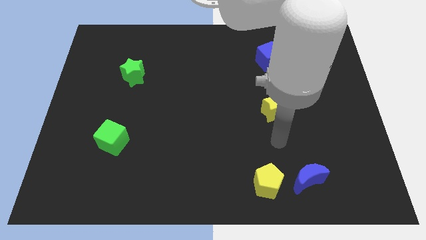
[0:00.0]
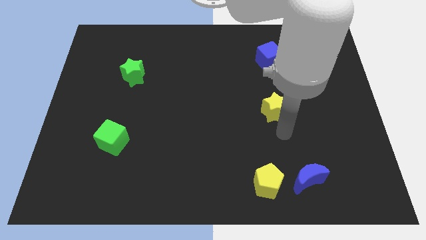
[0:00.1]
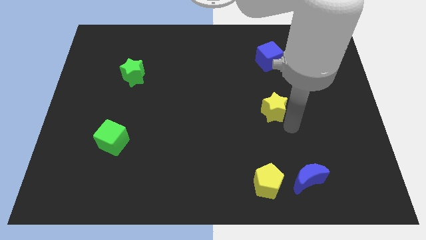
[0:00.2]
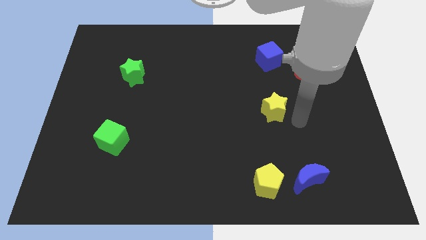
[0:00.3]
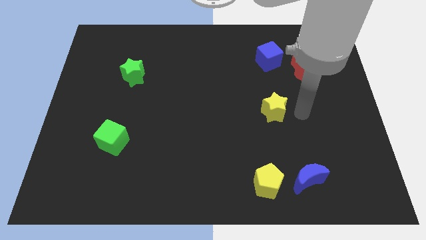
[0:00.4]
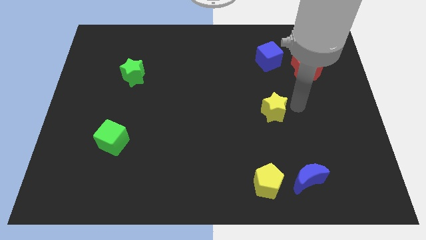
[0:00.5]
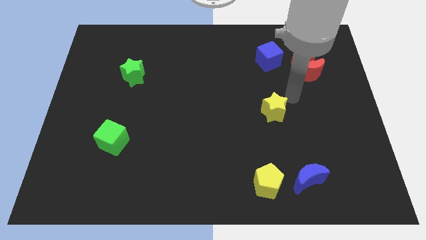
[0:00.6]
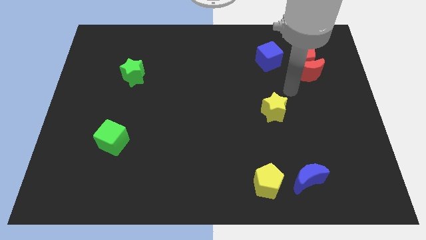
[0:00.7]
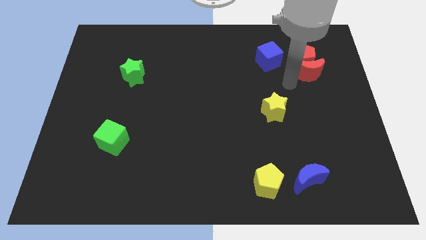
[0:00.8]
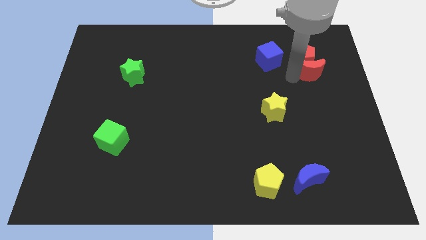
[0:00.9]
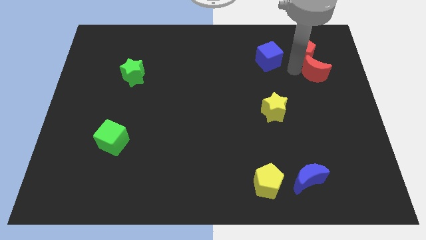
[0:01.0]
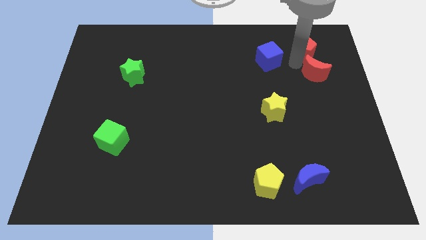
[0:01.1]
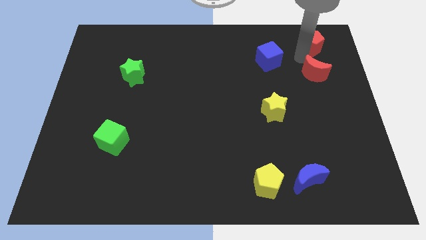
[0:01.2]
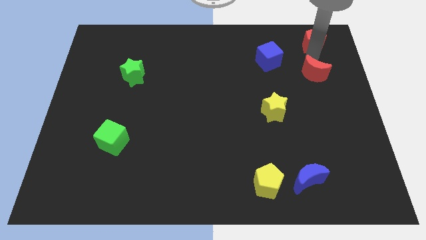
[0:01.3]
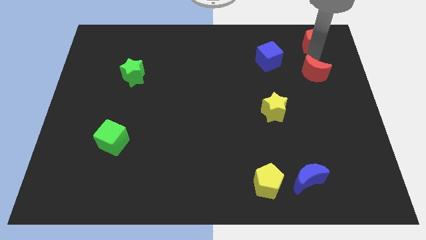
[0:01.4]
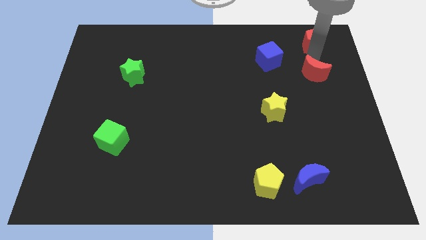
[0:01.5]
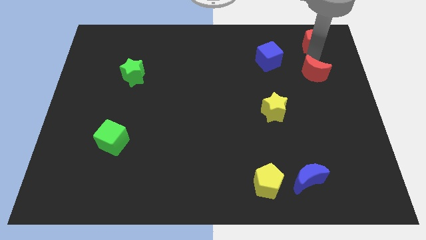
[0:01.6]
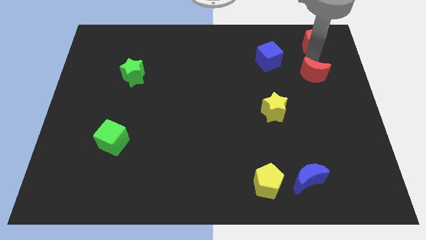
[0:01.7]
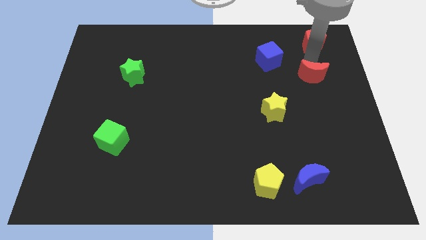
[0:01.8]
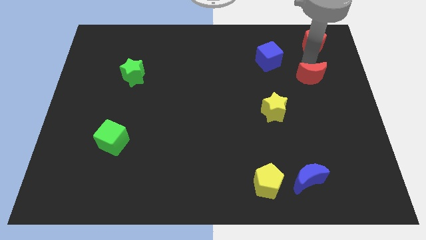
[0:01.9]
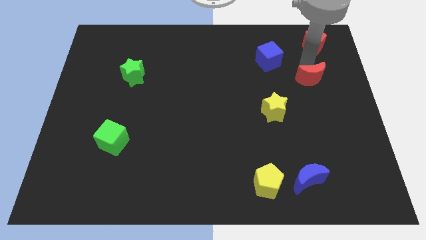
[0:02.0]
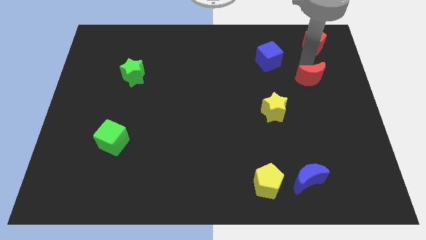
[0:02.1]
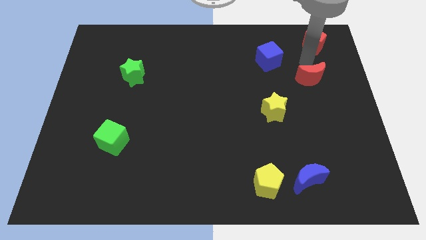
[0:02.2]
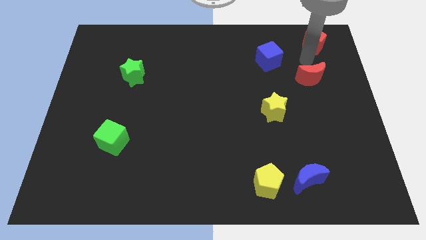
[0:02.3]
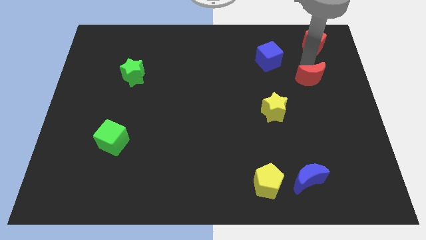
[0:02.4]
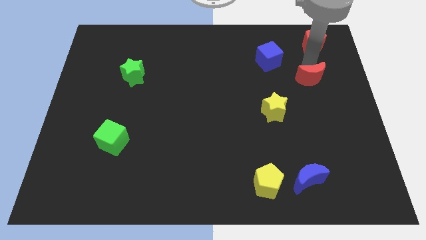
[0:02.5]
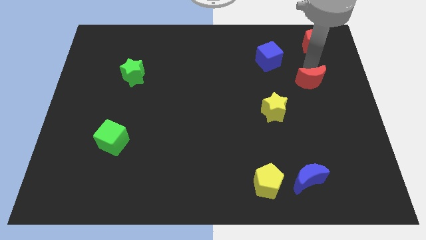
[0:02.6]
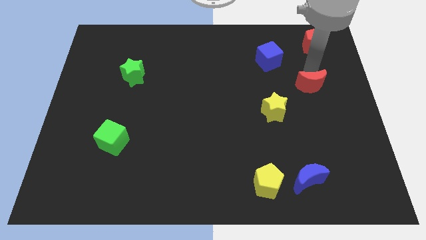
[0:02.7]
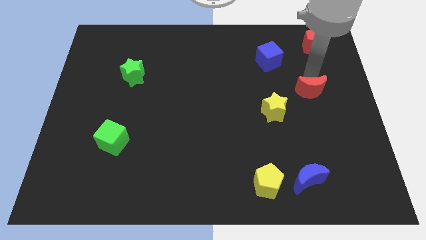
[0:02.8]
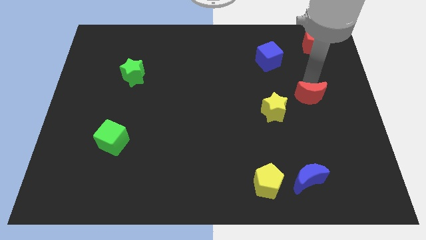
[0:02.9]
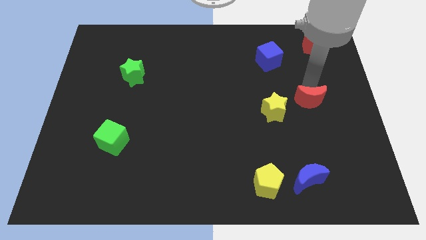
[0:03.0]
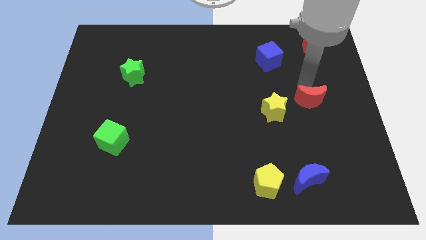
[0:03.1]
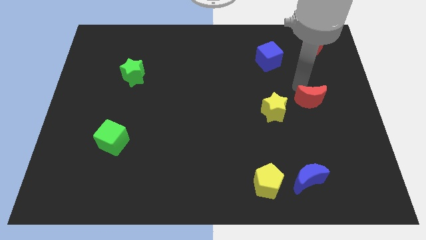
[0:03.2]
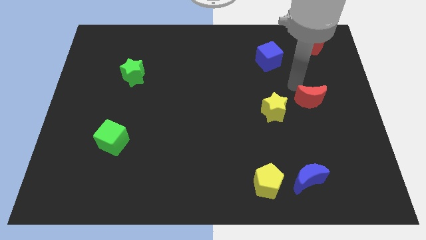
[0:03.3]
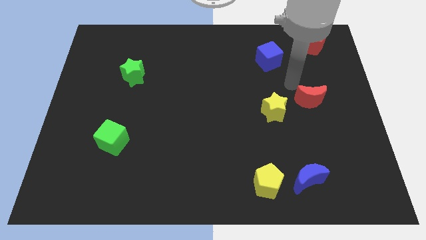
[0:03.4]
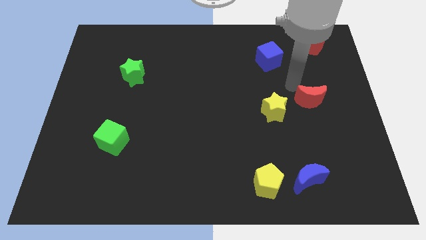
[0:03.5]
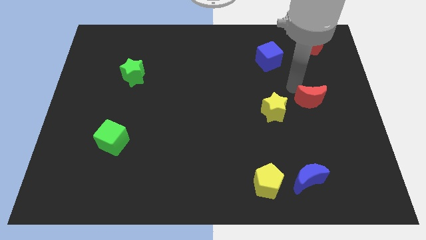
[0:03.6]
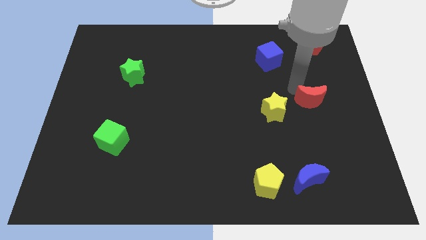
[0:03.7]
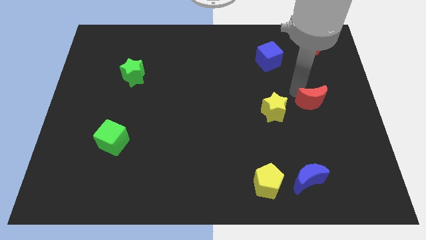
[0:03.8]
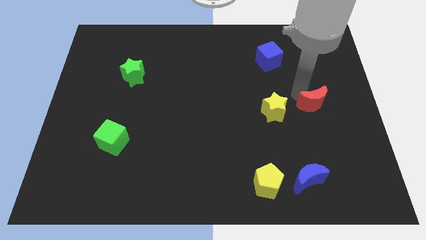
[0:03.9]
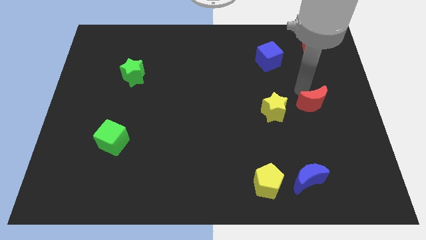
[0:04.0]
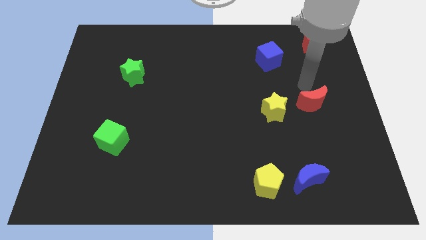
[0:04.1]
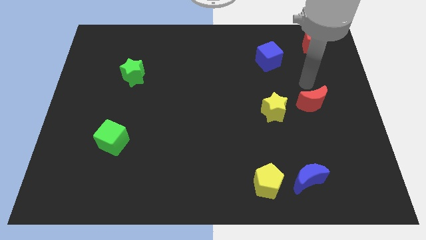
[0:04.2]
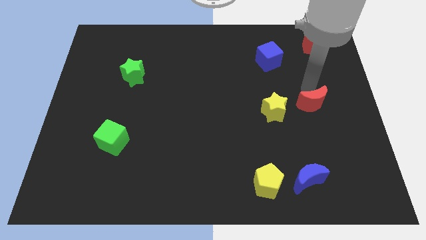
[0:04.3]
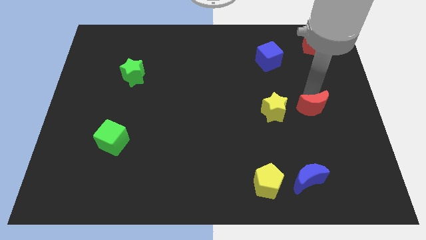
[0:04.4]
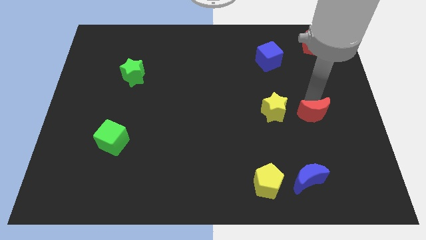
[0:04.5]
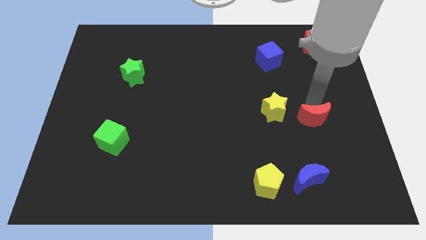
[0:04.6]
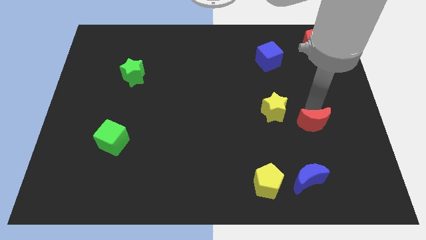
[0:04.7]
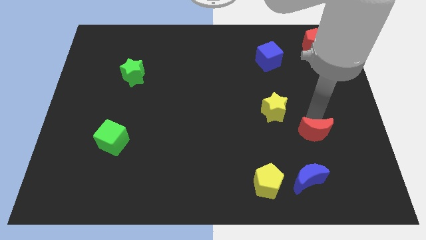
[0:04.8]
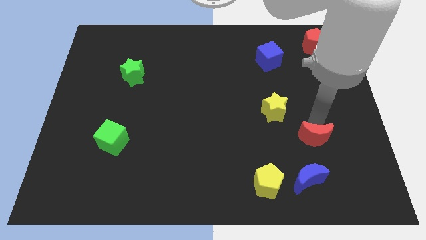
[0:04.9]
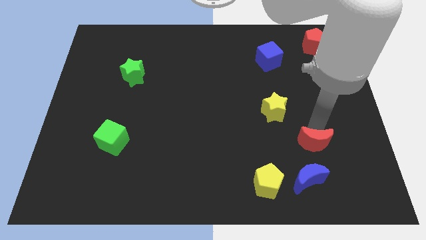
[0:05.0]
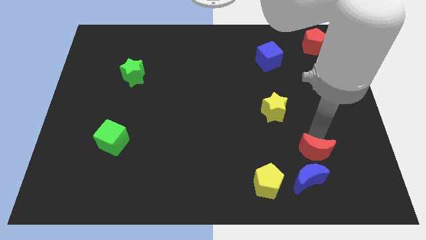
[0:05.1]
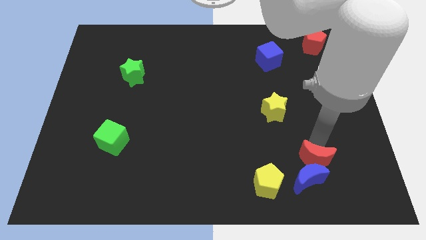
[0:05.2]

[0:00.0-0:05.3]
slide the red moon to the blue moon

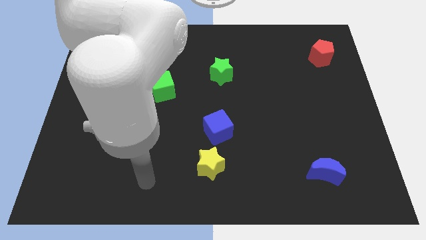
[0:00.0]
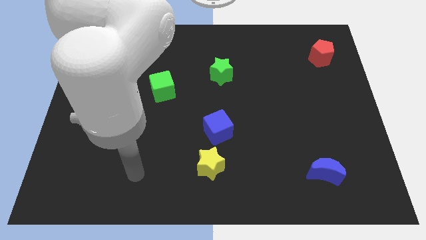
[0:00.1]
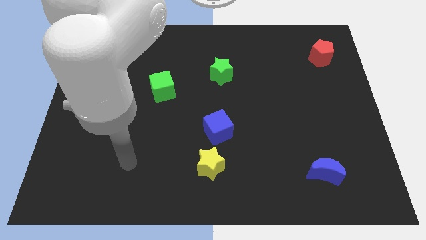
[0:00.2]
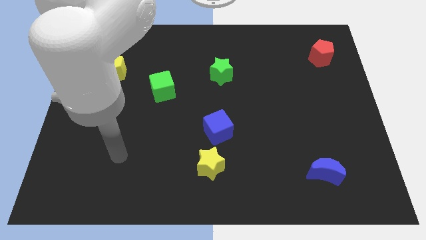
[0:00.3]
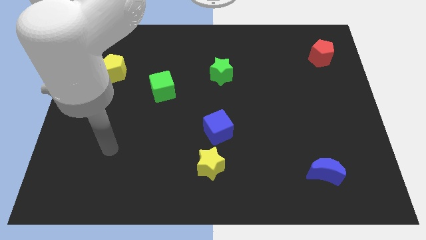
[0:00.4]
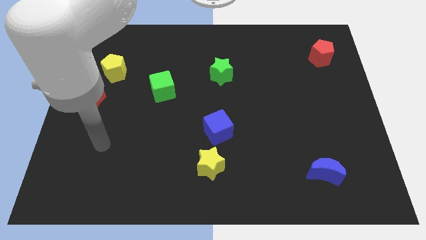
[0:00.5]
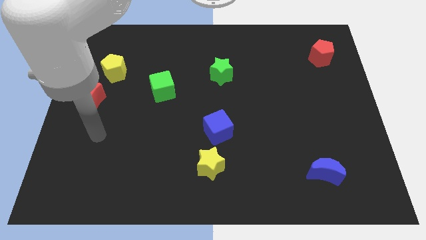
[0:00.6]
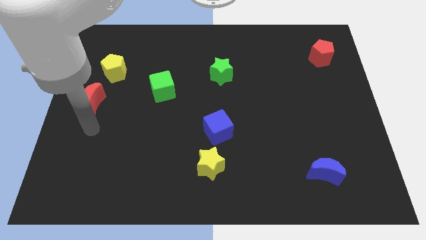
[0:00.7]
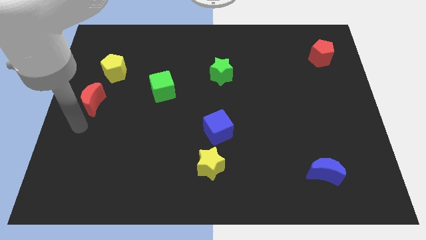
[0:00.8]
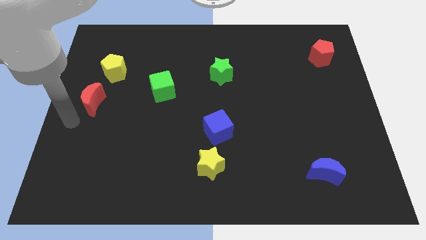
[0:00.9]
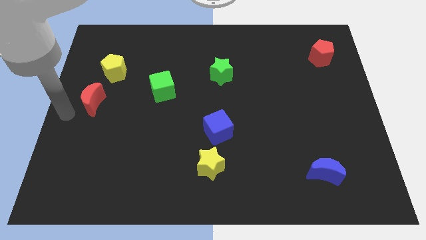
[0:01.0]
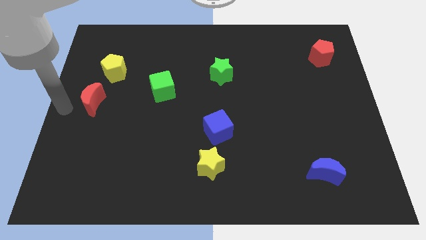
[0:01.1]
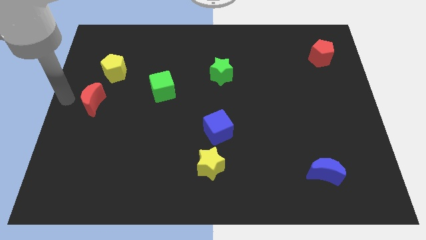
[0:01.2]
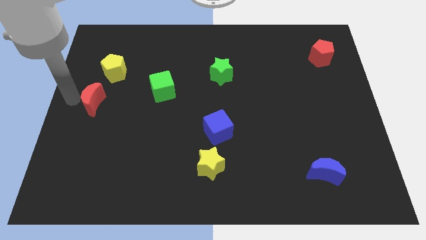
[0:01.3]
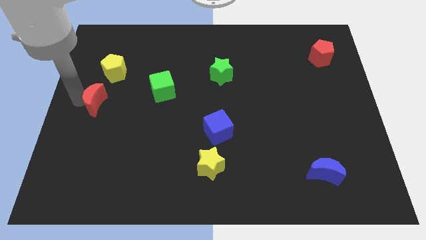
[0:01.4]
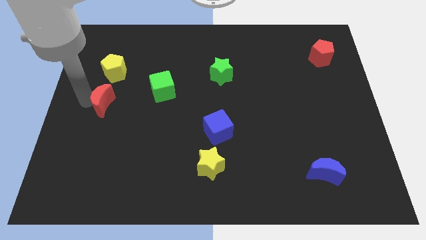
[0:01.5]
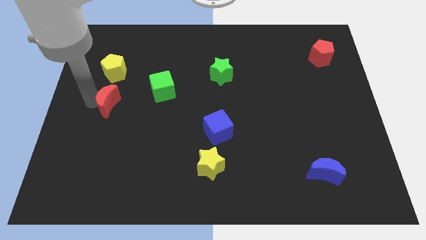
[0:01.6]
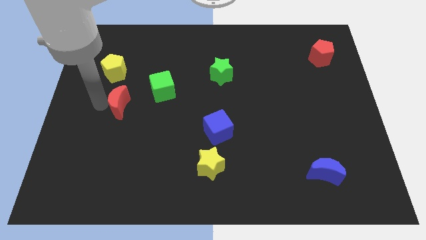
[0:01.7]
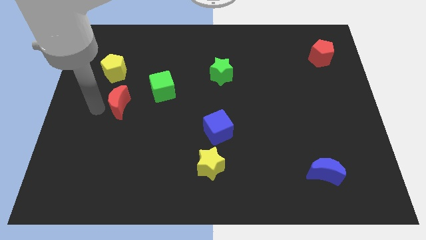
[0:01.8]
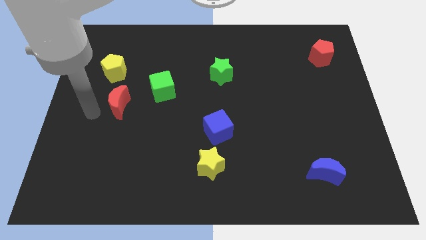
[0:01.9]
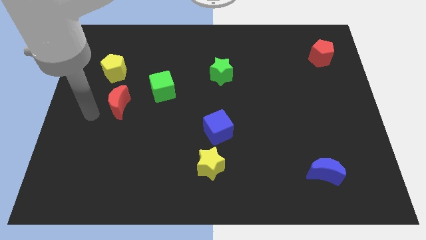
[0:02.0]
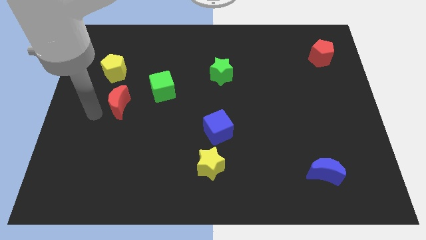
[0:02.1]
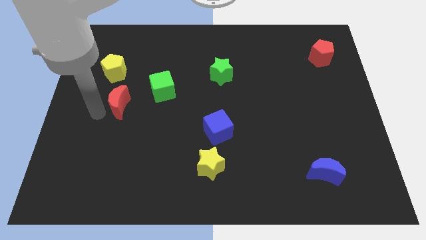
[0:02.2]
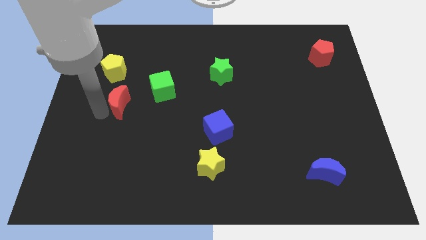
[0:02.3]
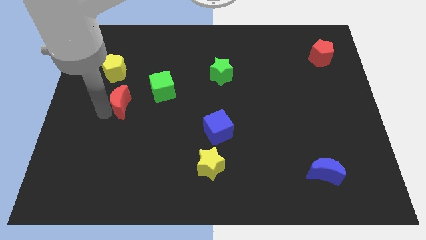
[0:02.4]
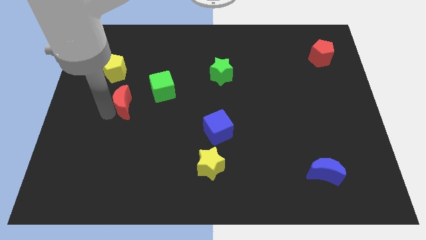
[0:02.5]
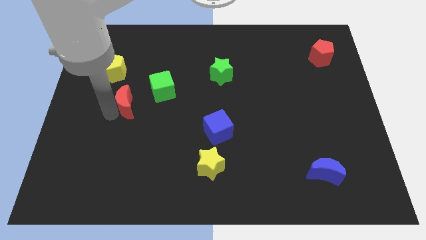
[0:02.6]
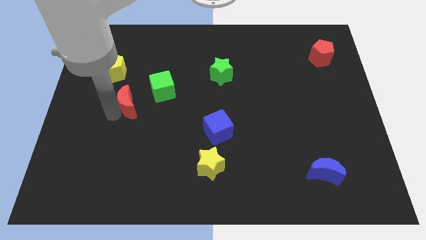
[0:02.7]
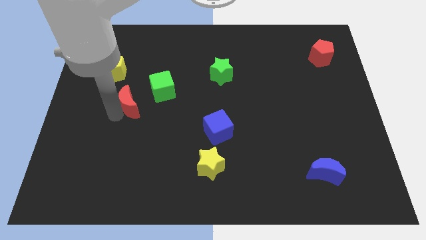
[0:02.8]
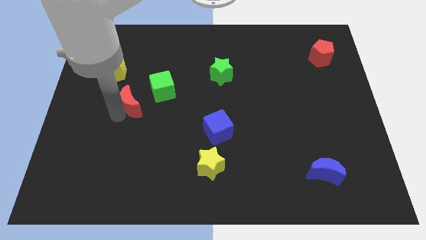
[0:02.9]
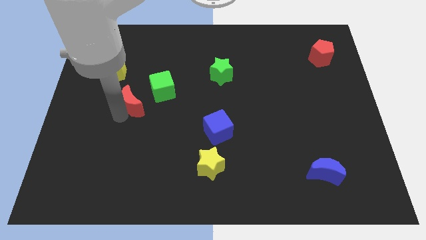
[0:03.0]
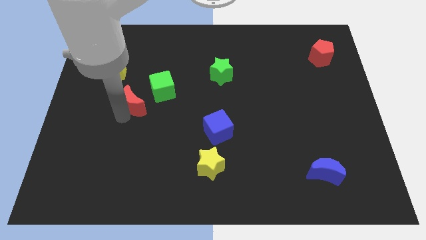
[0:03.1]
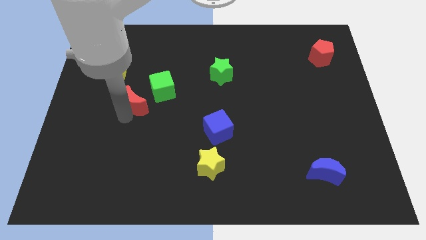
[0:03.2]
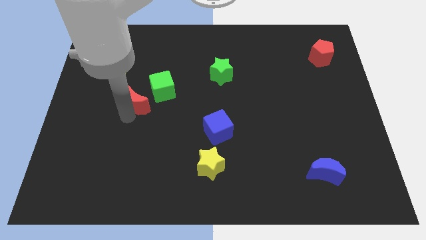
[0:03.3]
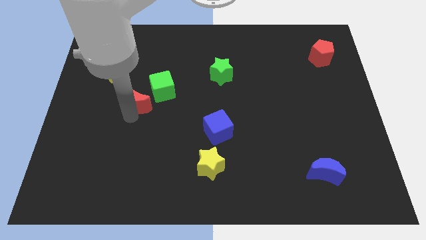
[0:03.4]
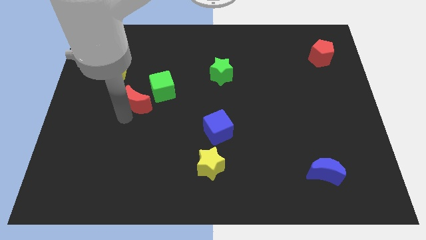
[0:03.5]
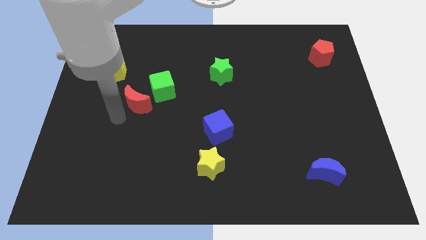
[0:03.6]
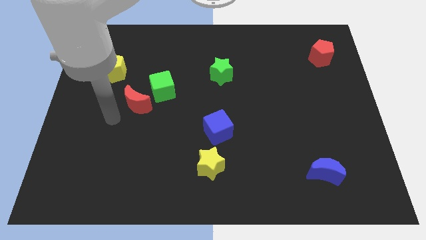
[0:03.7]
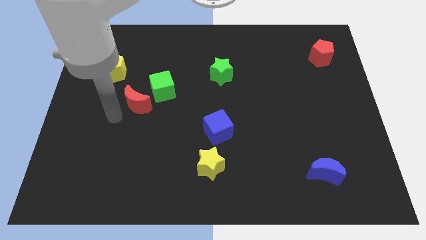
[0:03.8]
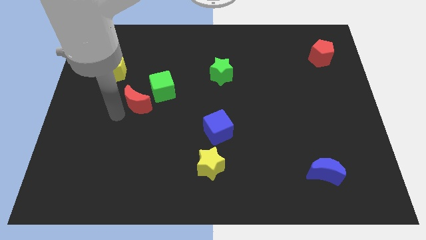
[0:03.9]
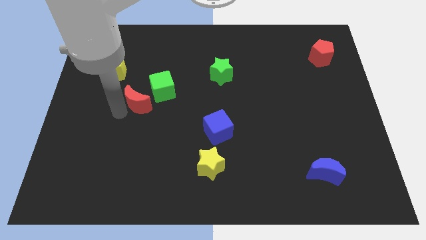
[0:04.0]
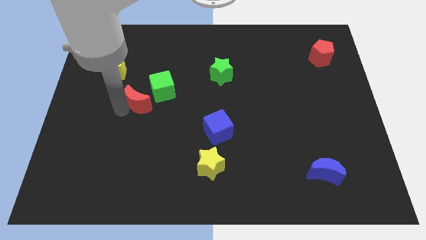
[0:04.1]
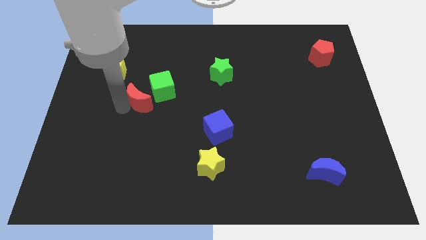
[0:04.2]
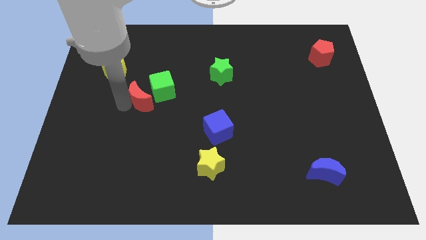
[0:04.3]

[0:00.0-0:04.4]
put the red moon close to the green cube
